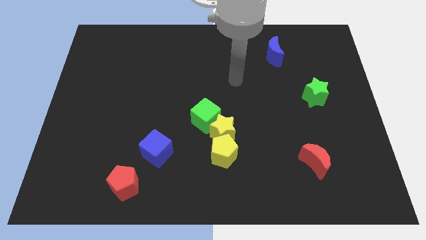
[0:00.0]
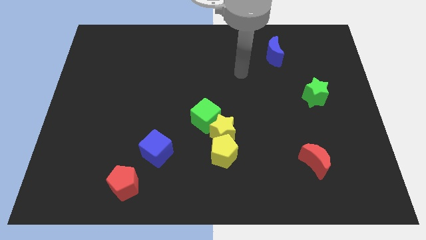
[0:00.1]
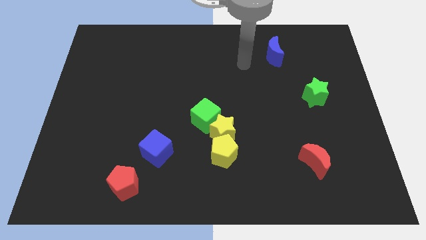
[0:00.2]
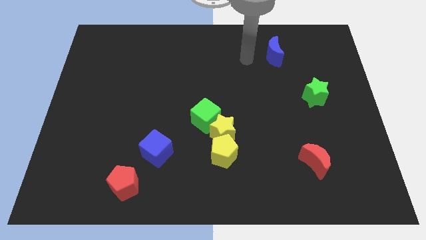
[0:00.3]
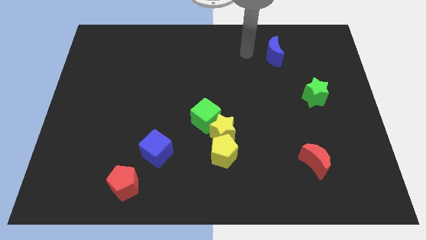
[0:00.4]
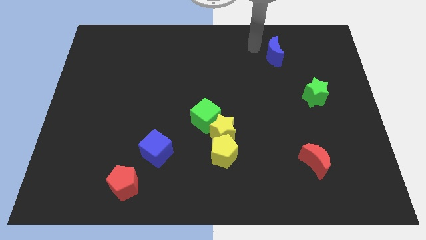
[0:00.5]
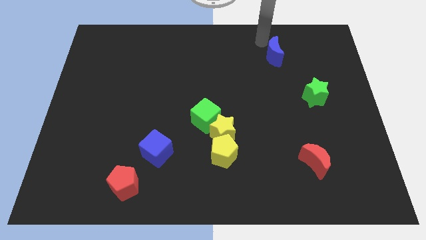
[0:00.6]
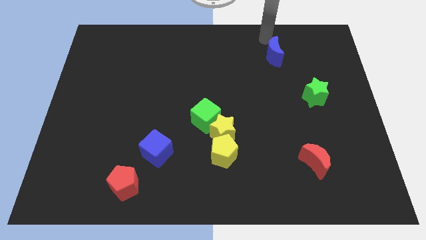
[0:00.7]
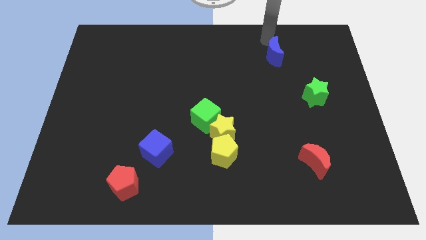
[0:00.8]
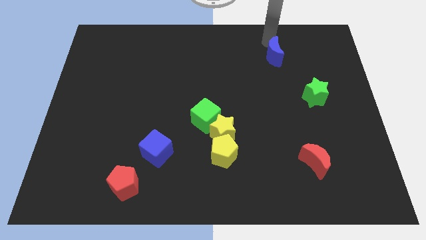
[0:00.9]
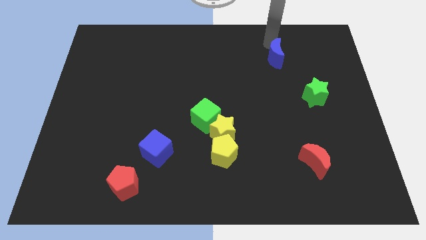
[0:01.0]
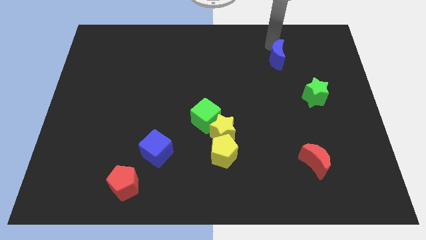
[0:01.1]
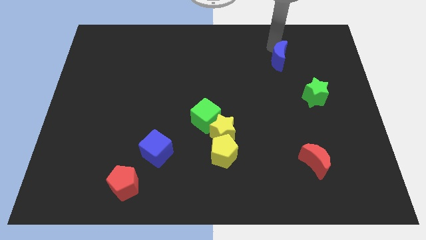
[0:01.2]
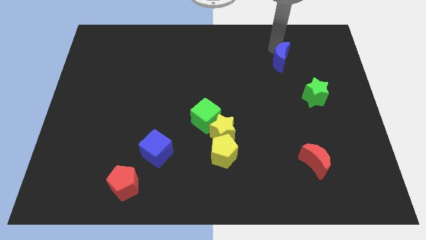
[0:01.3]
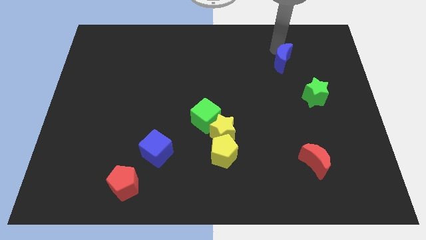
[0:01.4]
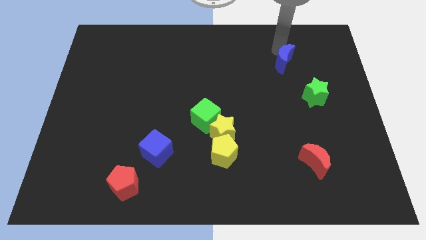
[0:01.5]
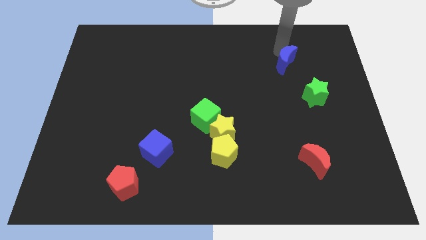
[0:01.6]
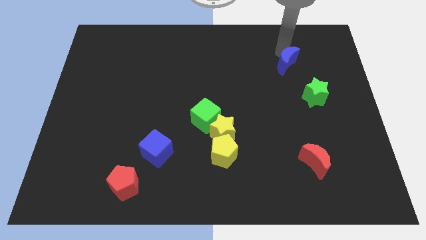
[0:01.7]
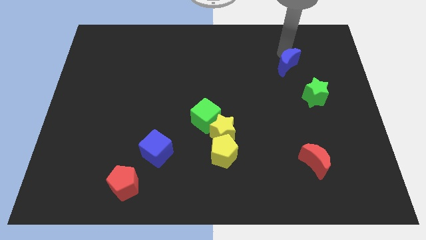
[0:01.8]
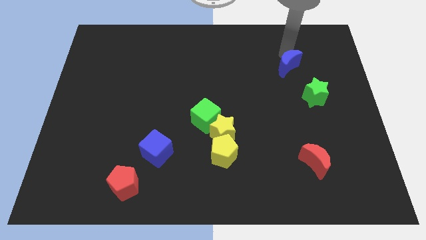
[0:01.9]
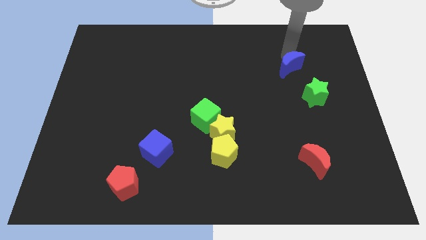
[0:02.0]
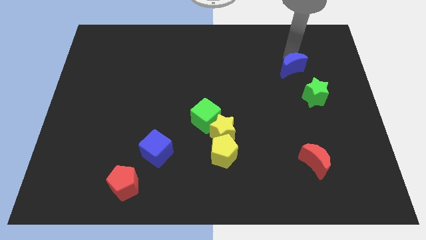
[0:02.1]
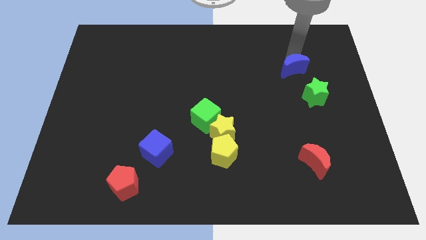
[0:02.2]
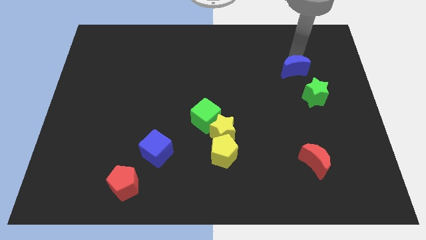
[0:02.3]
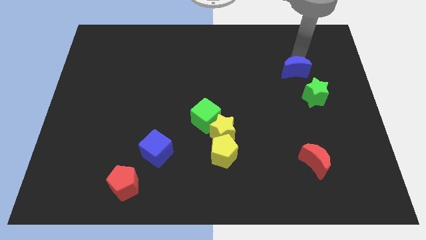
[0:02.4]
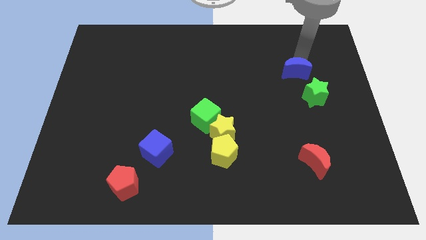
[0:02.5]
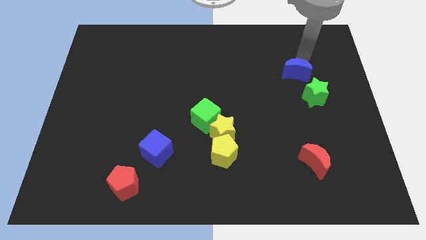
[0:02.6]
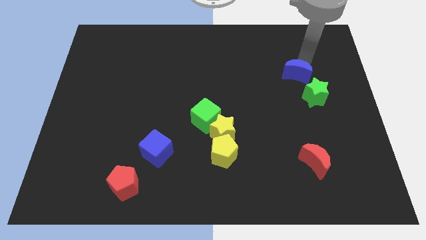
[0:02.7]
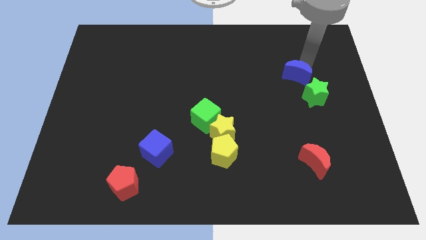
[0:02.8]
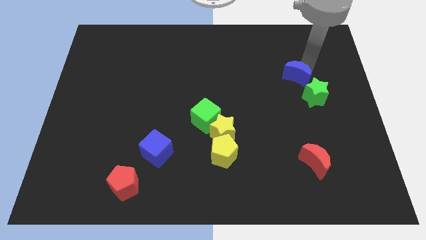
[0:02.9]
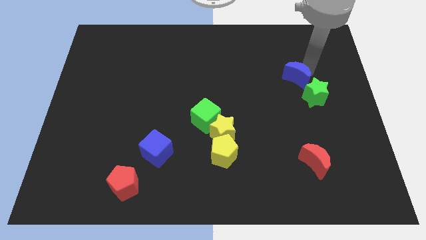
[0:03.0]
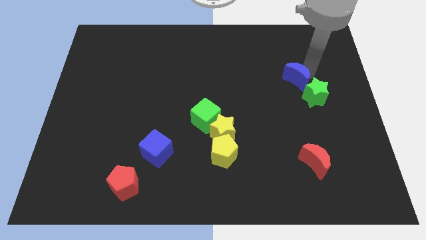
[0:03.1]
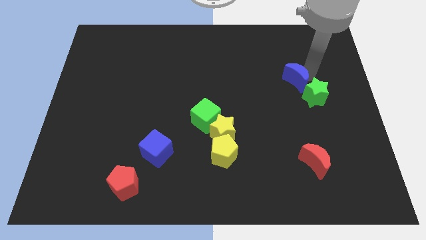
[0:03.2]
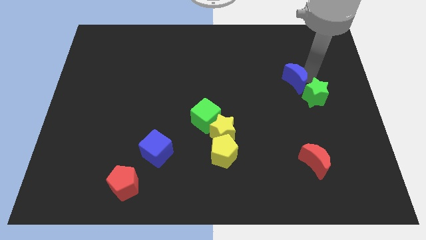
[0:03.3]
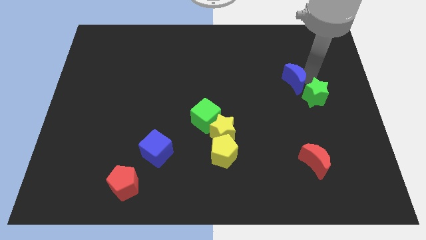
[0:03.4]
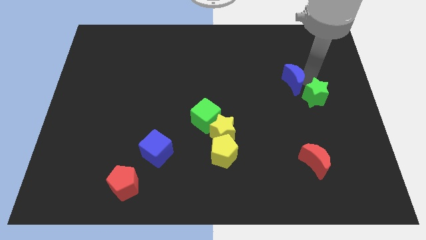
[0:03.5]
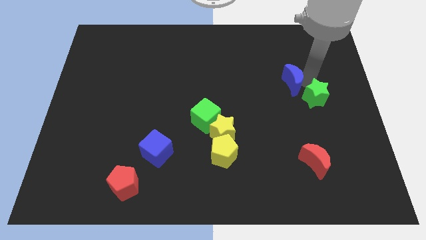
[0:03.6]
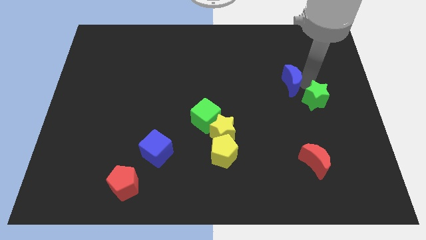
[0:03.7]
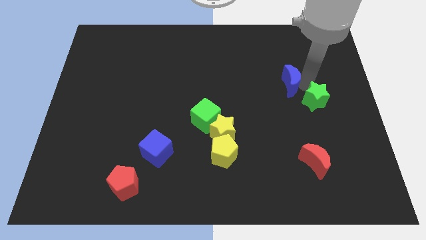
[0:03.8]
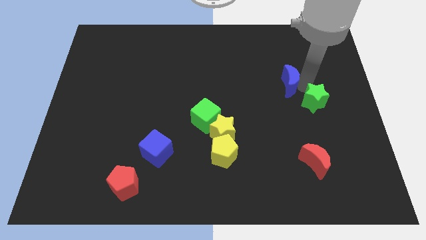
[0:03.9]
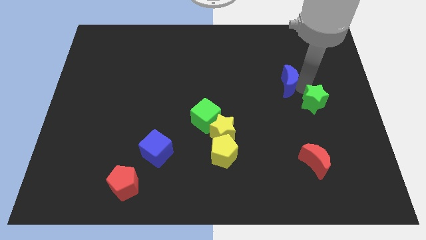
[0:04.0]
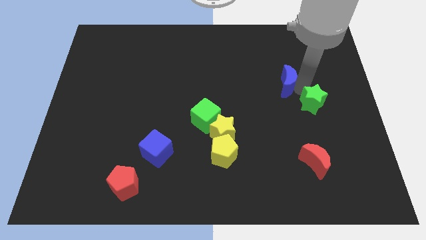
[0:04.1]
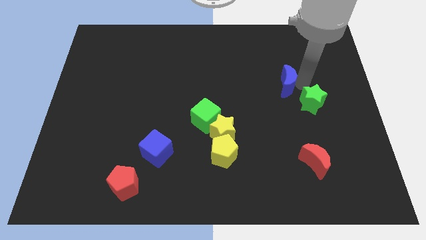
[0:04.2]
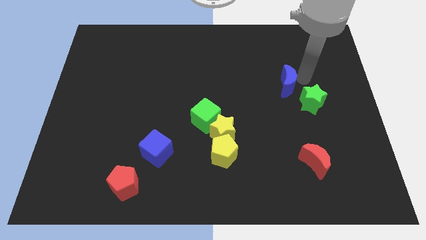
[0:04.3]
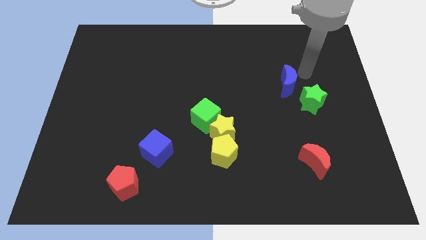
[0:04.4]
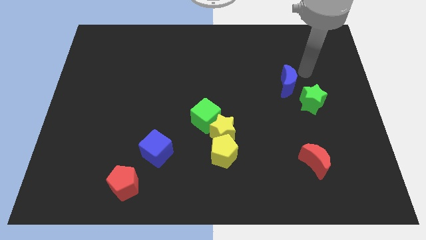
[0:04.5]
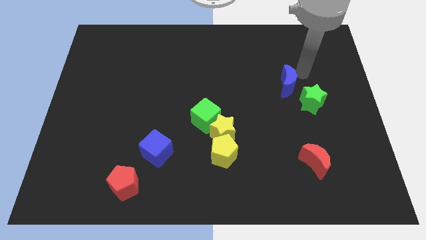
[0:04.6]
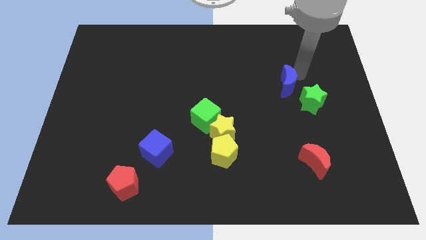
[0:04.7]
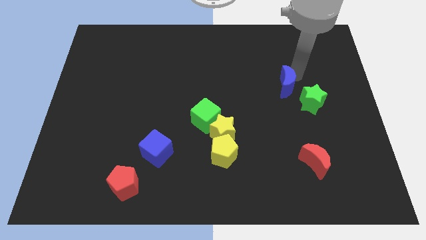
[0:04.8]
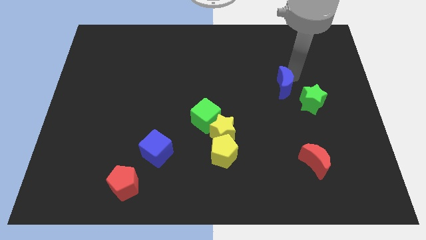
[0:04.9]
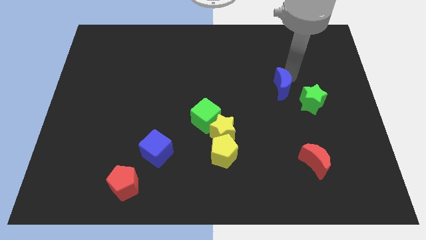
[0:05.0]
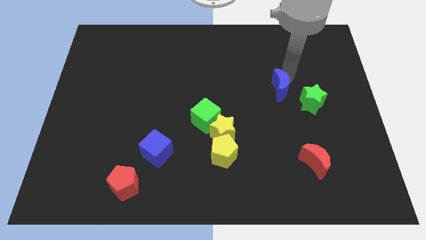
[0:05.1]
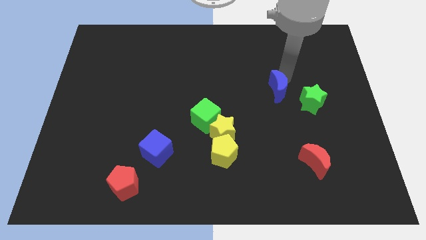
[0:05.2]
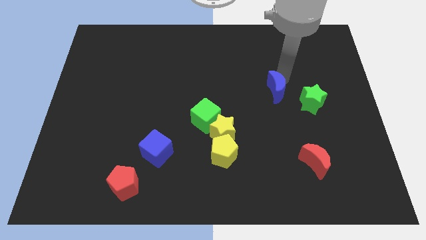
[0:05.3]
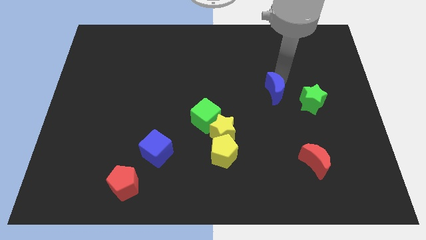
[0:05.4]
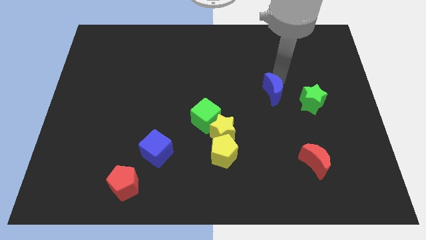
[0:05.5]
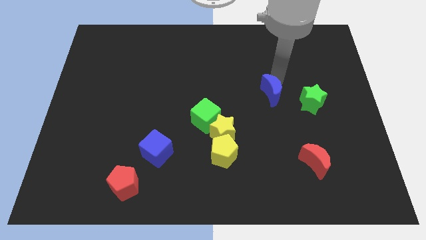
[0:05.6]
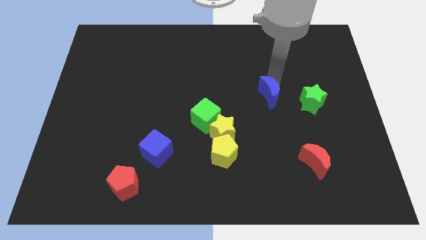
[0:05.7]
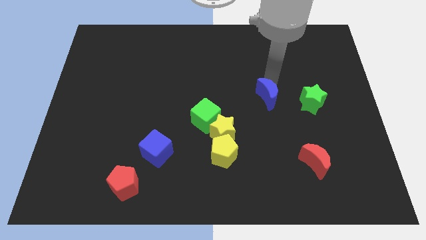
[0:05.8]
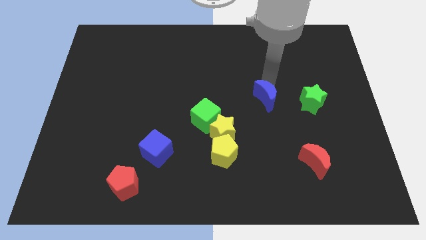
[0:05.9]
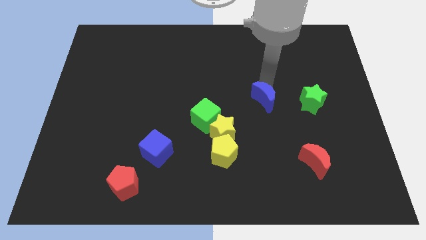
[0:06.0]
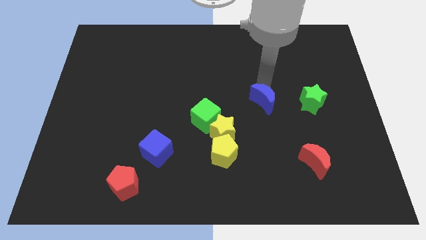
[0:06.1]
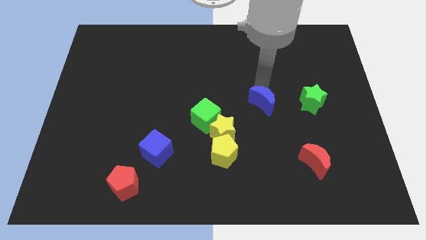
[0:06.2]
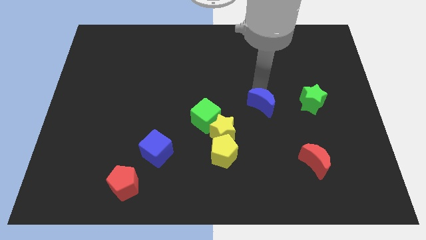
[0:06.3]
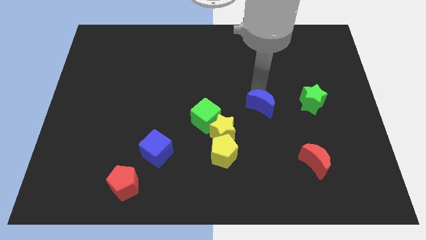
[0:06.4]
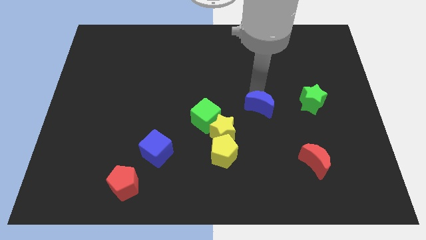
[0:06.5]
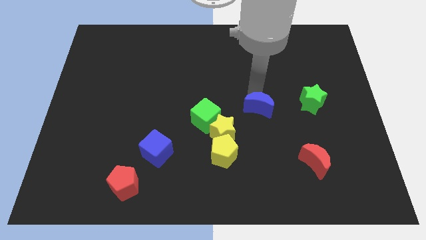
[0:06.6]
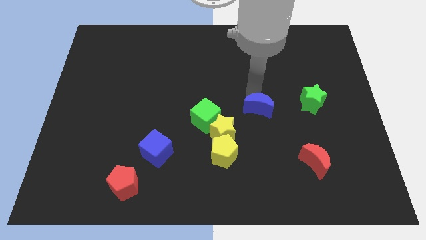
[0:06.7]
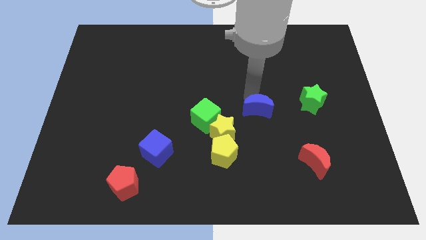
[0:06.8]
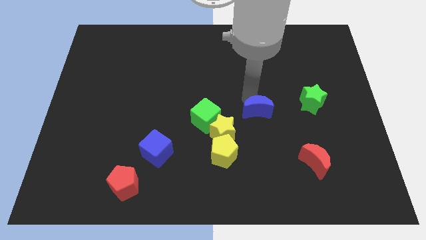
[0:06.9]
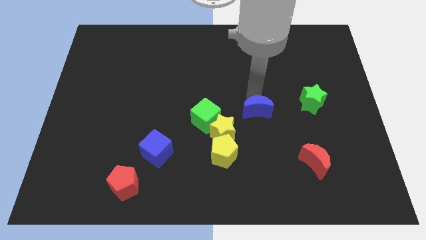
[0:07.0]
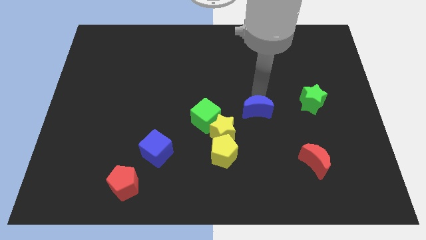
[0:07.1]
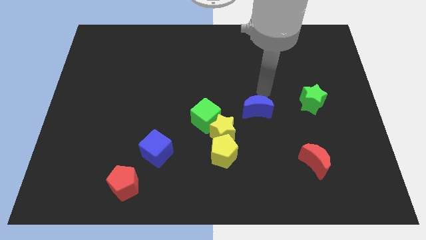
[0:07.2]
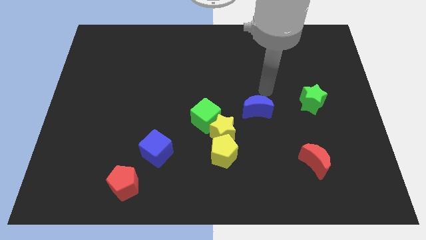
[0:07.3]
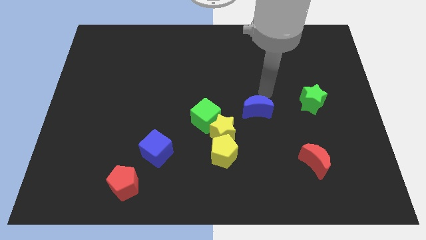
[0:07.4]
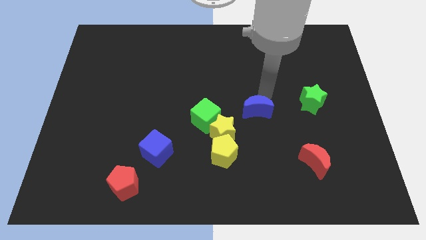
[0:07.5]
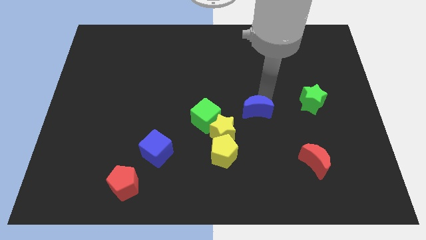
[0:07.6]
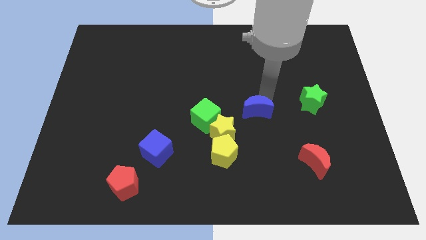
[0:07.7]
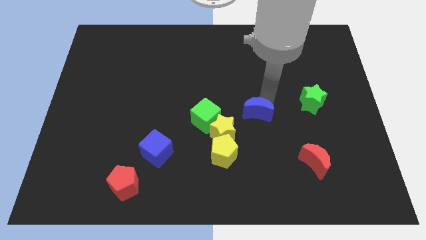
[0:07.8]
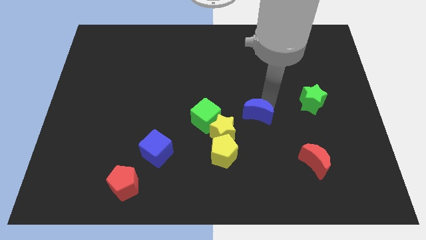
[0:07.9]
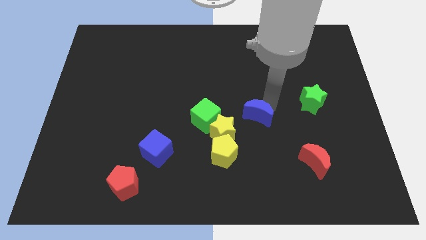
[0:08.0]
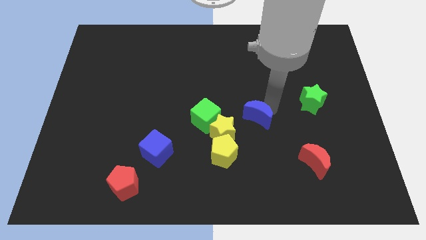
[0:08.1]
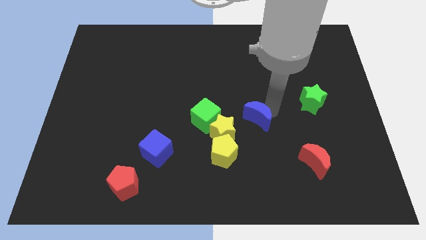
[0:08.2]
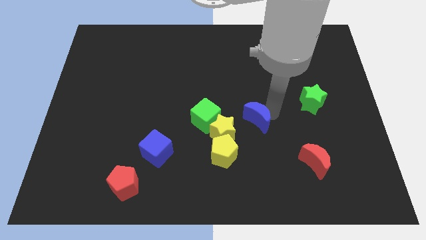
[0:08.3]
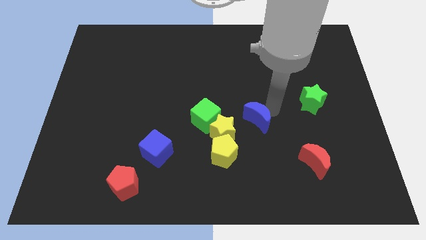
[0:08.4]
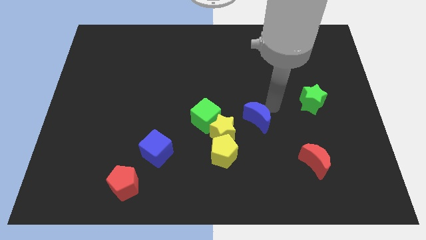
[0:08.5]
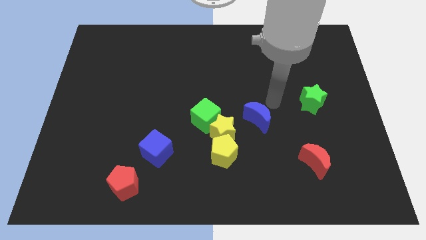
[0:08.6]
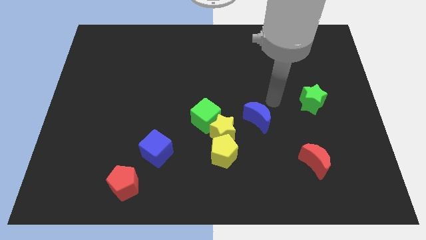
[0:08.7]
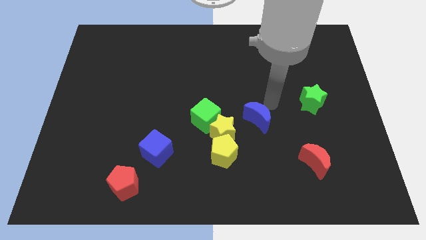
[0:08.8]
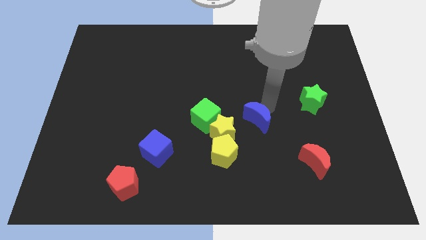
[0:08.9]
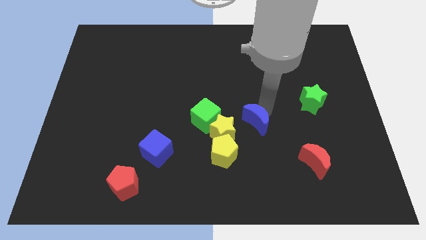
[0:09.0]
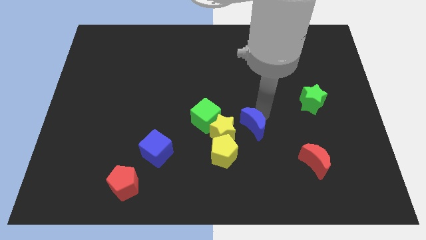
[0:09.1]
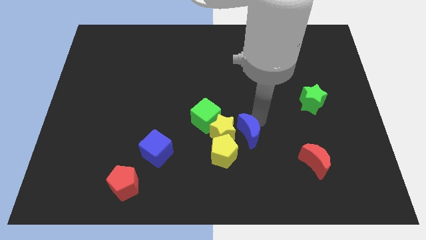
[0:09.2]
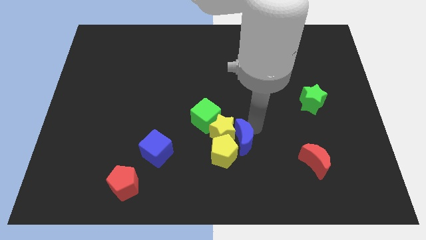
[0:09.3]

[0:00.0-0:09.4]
slide the blue moon next to the yellow pentagon
